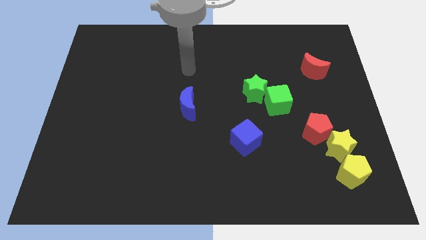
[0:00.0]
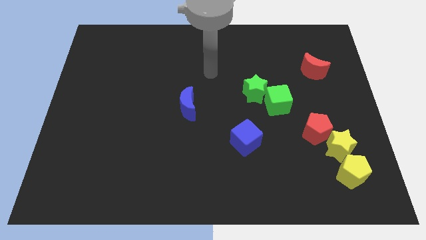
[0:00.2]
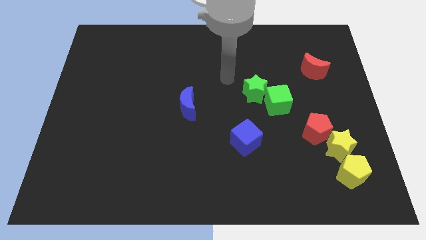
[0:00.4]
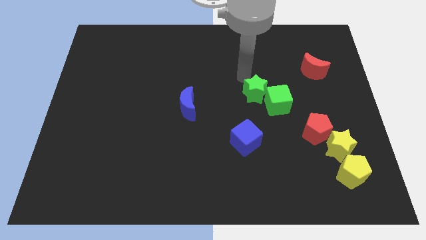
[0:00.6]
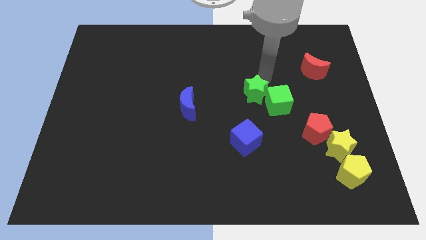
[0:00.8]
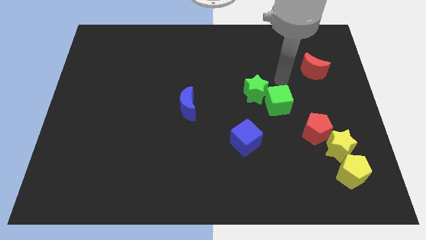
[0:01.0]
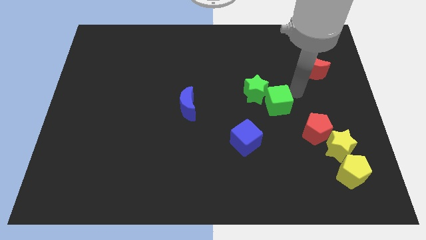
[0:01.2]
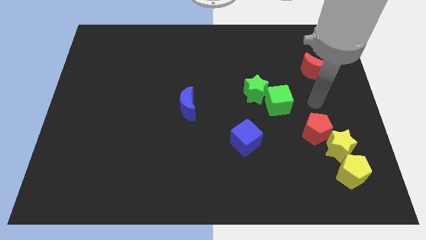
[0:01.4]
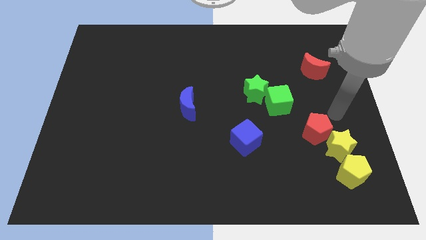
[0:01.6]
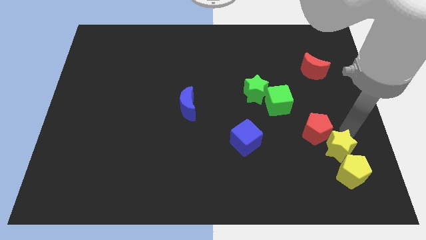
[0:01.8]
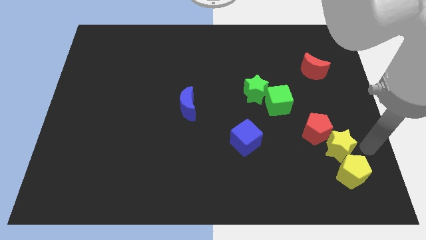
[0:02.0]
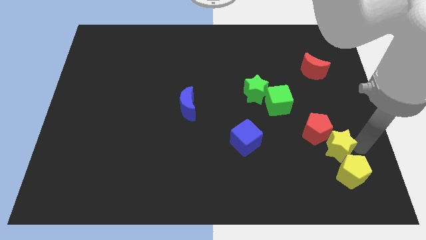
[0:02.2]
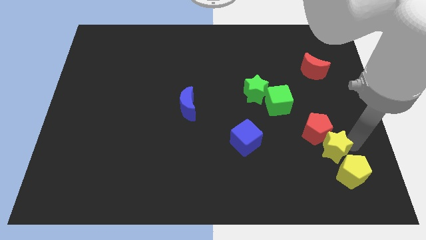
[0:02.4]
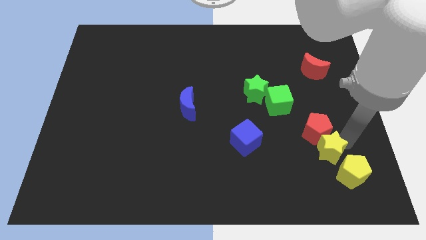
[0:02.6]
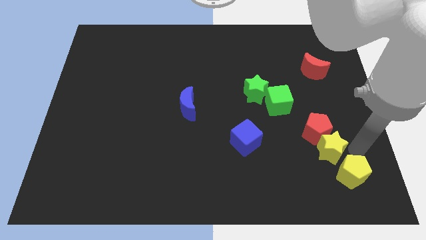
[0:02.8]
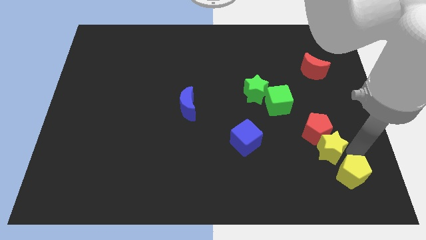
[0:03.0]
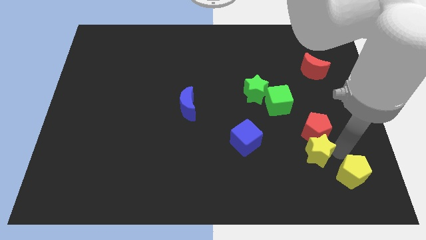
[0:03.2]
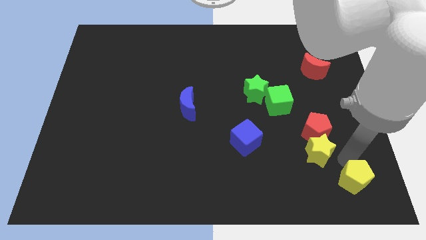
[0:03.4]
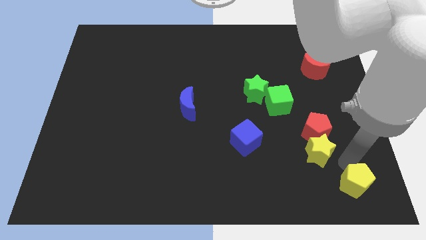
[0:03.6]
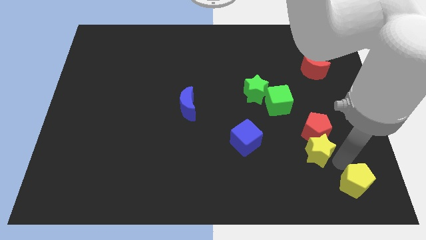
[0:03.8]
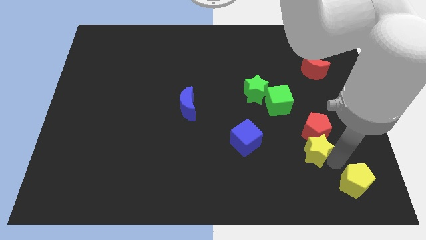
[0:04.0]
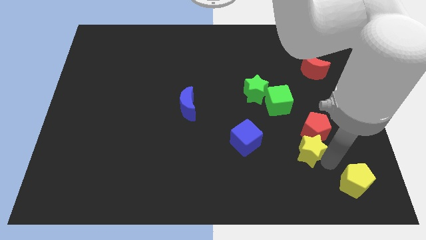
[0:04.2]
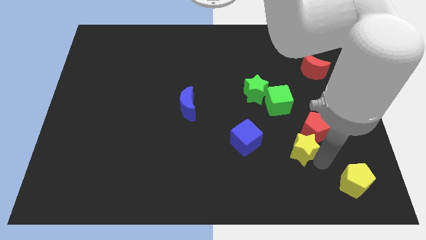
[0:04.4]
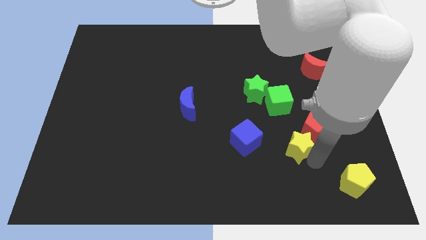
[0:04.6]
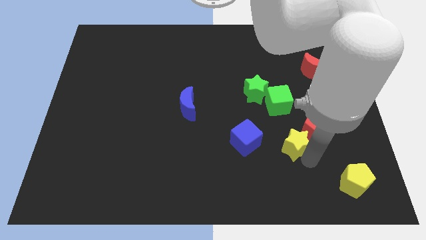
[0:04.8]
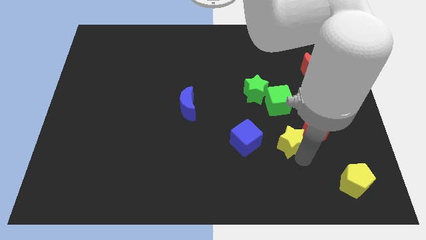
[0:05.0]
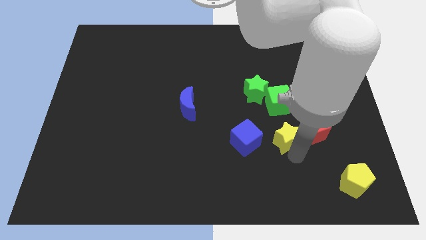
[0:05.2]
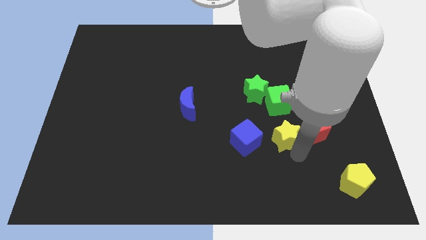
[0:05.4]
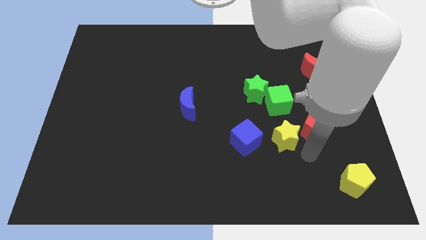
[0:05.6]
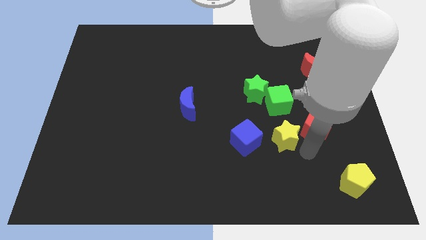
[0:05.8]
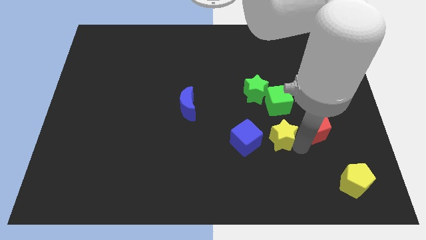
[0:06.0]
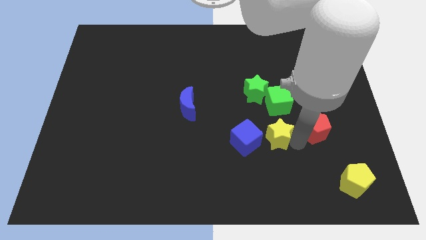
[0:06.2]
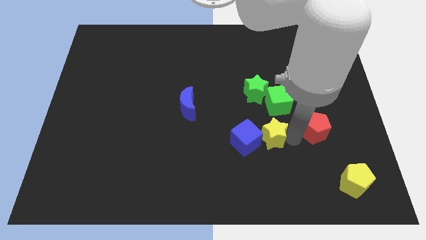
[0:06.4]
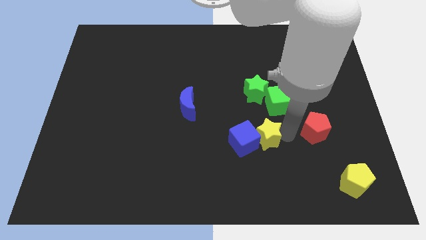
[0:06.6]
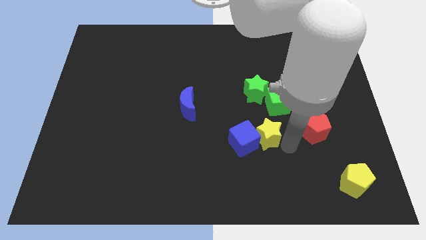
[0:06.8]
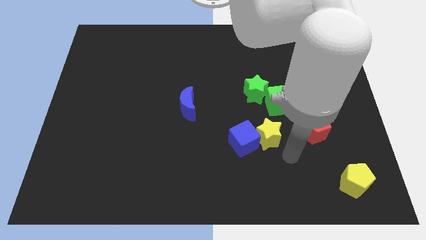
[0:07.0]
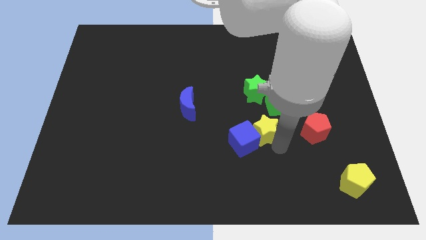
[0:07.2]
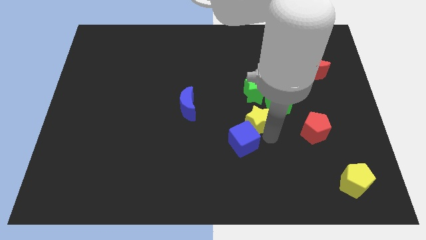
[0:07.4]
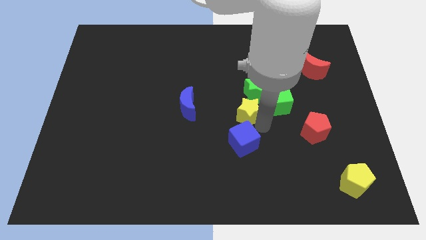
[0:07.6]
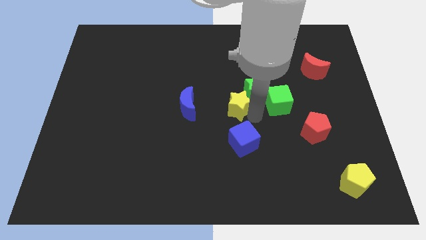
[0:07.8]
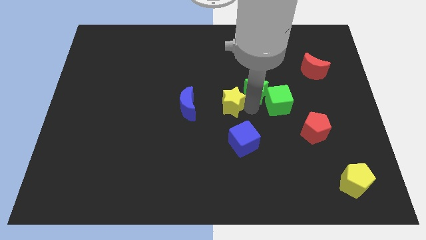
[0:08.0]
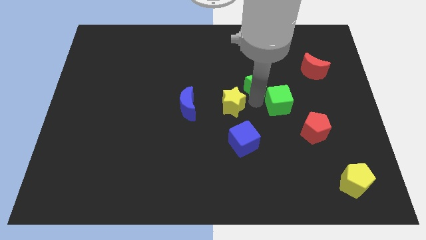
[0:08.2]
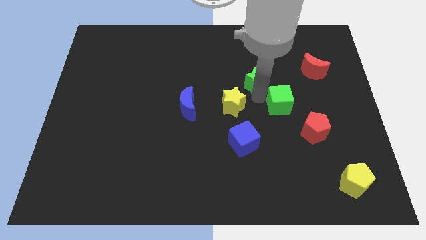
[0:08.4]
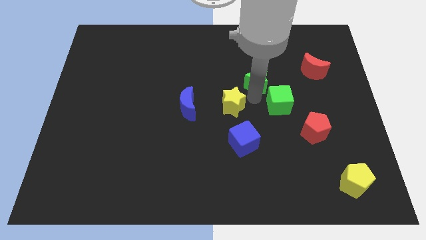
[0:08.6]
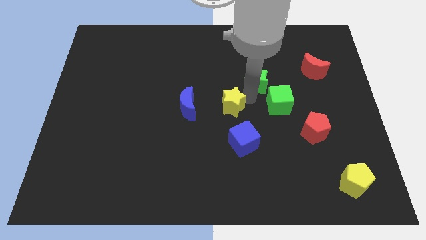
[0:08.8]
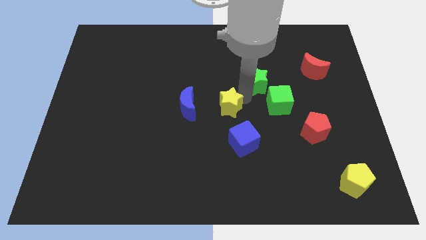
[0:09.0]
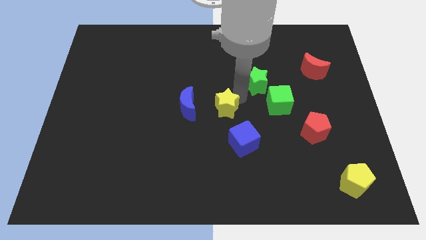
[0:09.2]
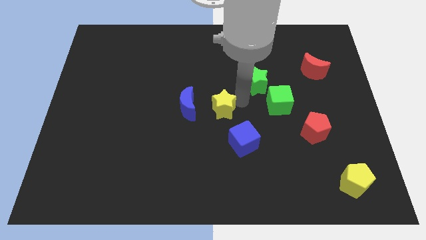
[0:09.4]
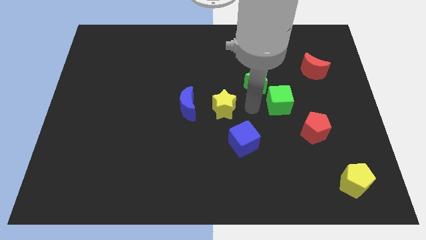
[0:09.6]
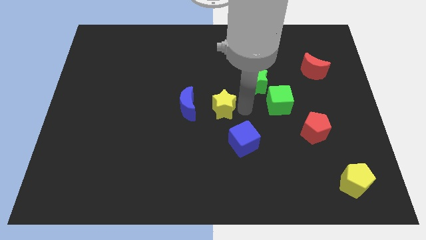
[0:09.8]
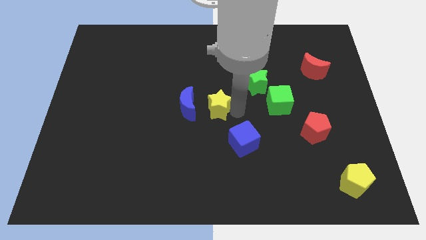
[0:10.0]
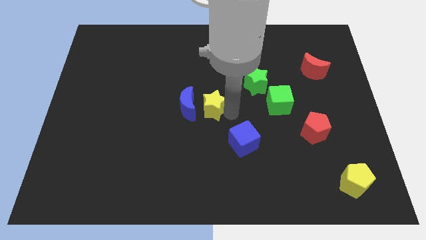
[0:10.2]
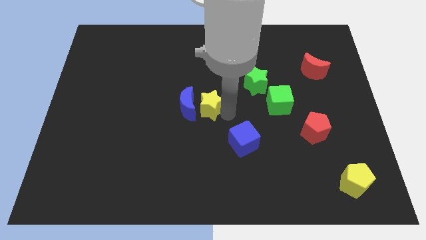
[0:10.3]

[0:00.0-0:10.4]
put the yellow star towards the blue moon
